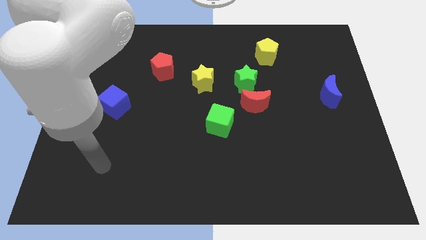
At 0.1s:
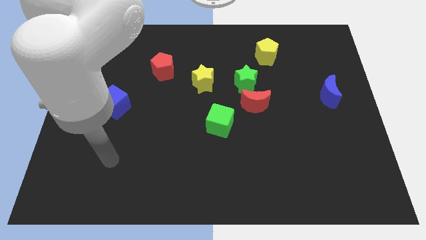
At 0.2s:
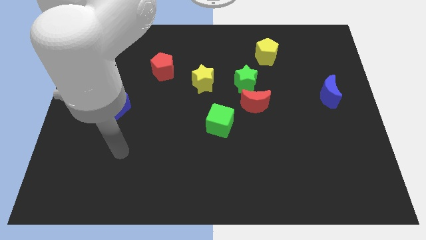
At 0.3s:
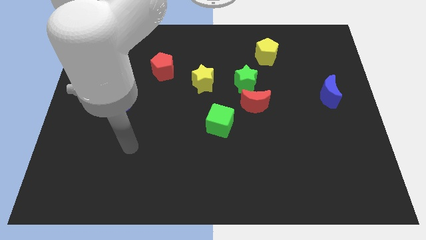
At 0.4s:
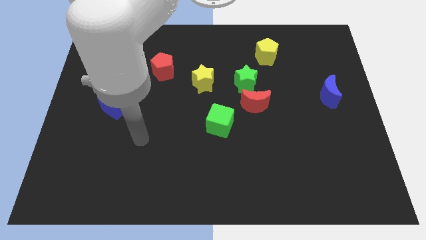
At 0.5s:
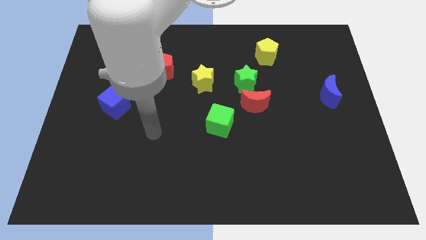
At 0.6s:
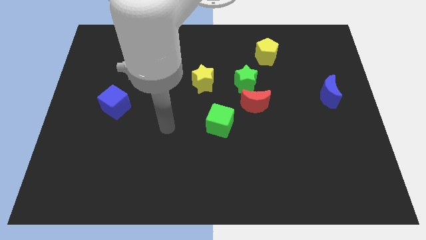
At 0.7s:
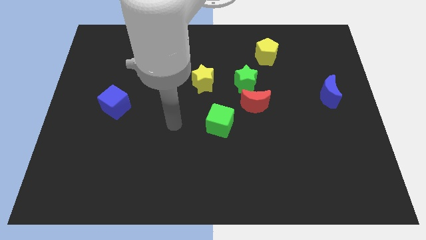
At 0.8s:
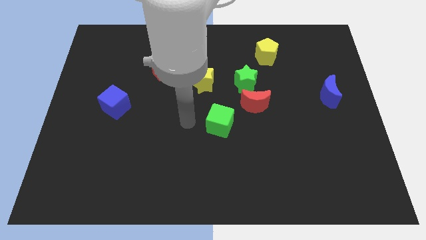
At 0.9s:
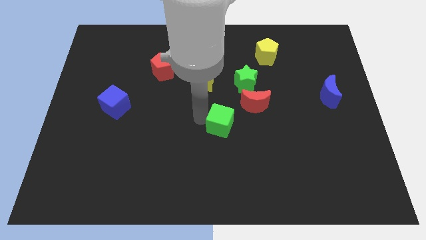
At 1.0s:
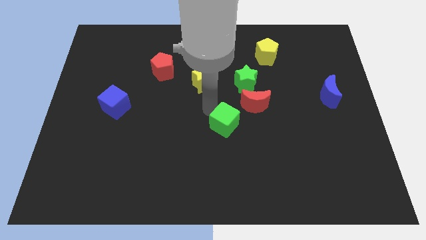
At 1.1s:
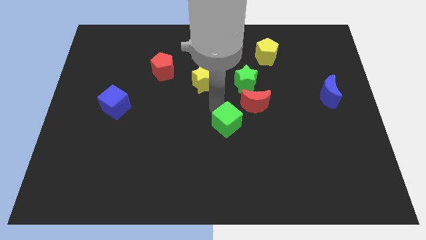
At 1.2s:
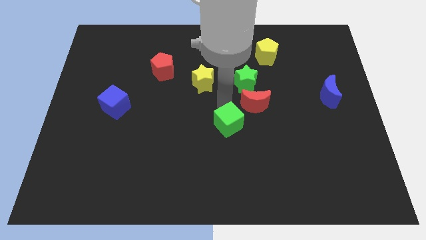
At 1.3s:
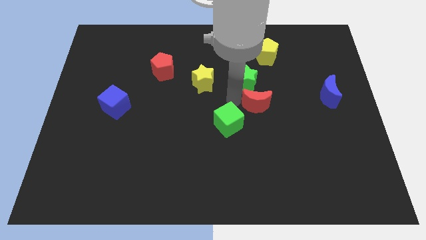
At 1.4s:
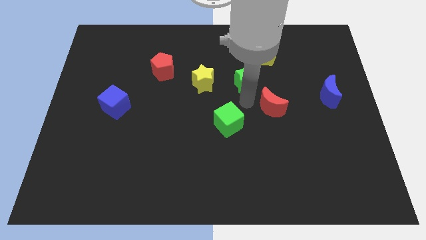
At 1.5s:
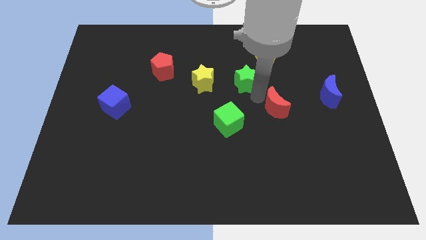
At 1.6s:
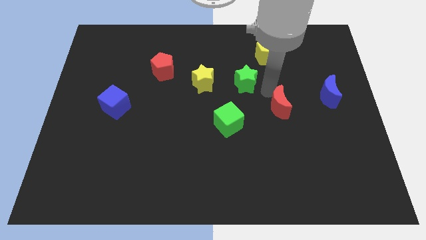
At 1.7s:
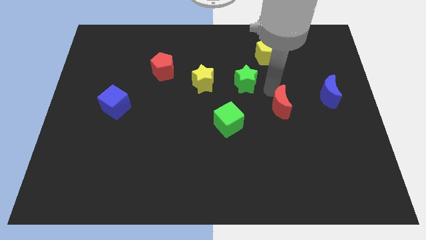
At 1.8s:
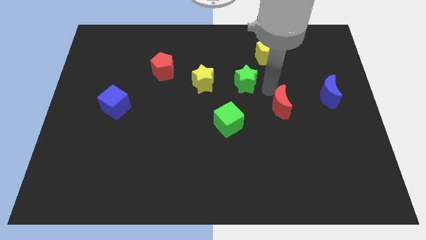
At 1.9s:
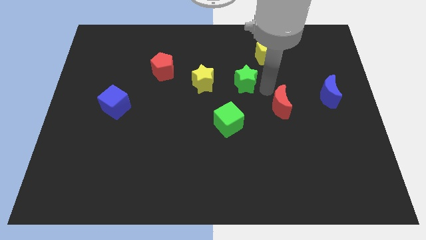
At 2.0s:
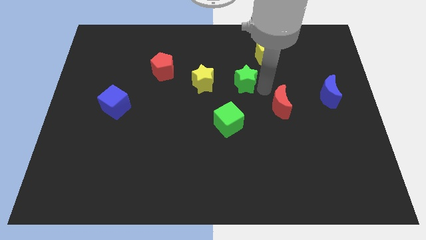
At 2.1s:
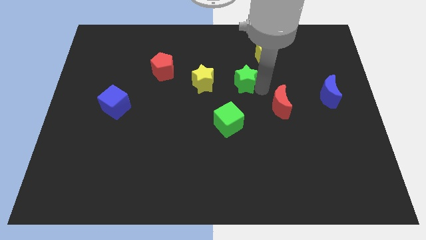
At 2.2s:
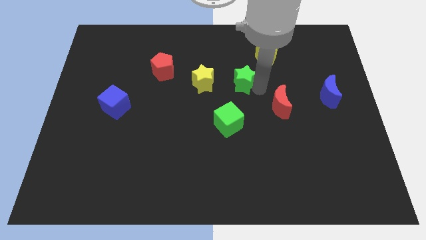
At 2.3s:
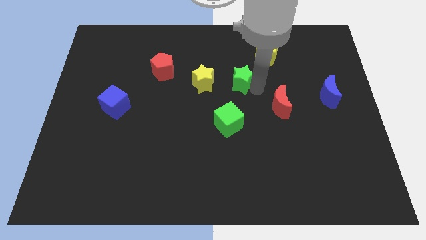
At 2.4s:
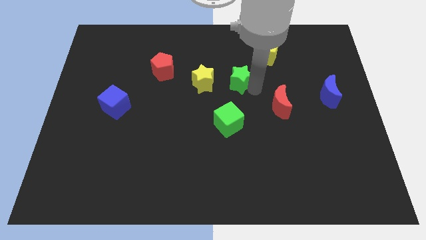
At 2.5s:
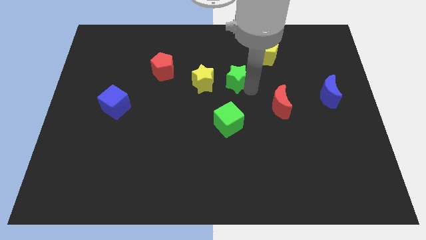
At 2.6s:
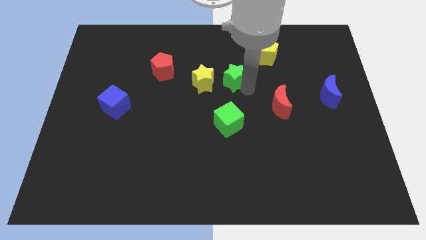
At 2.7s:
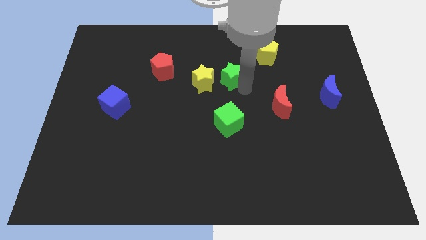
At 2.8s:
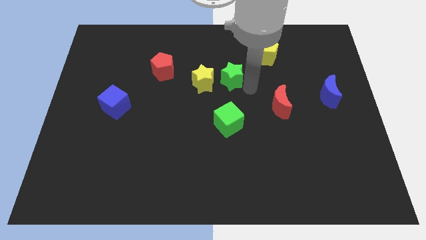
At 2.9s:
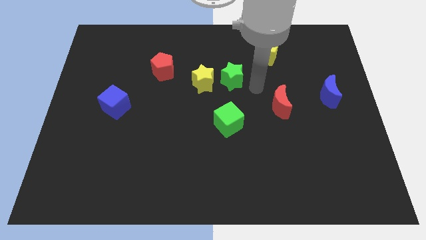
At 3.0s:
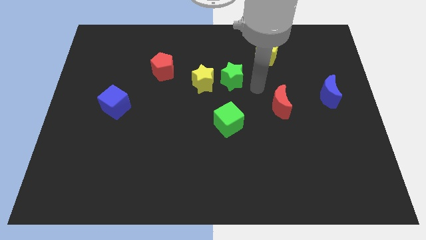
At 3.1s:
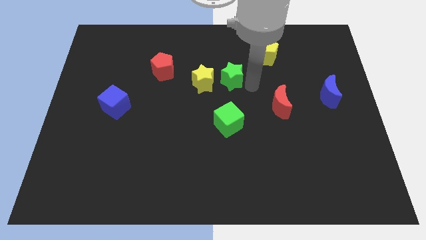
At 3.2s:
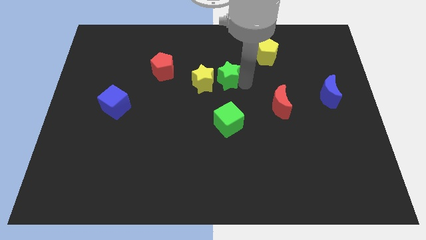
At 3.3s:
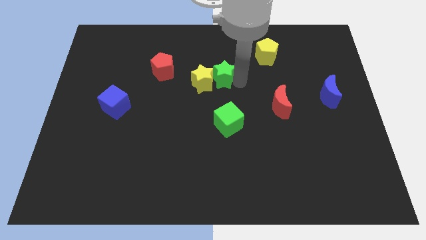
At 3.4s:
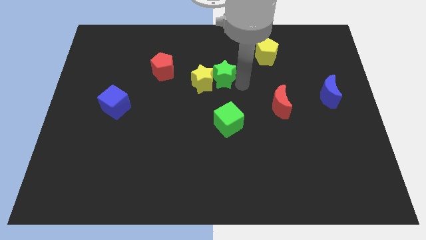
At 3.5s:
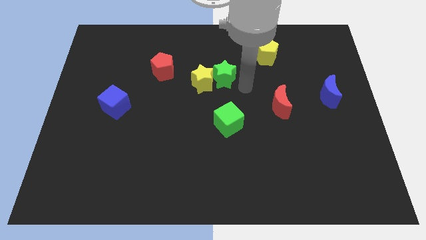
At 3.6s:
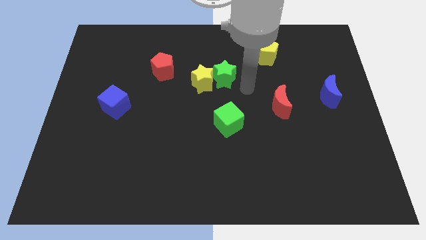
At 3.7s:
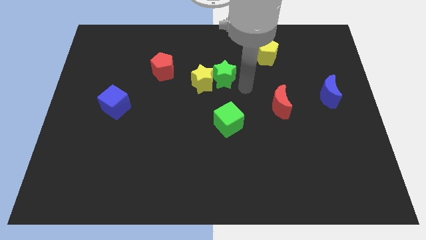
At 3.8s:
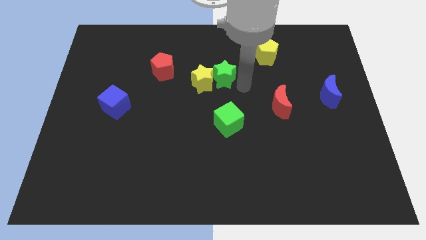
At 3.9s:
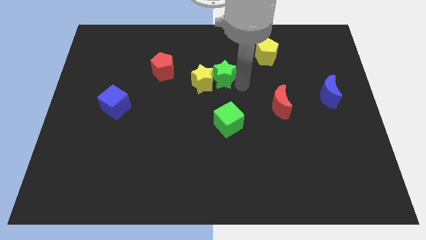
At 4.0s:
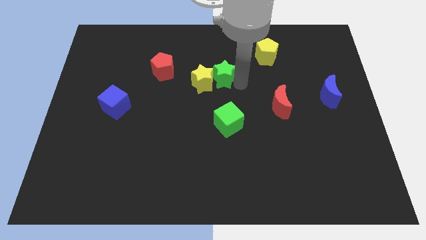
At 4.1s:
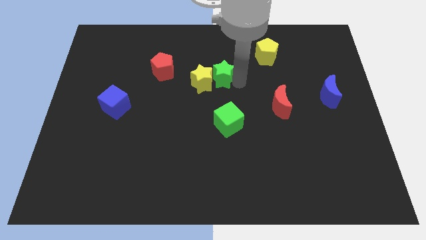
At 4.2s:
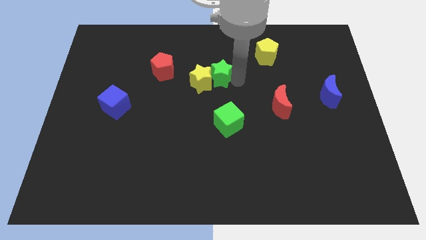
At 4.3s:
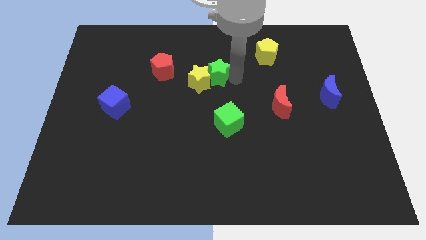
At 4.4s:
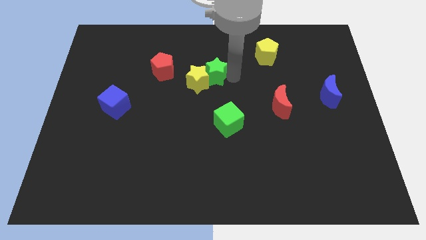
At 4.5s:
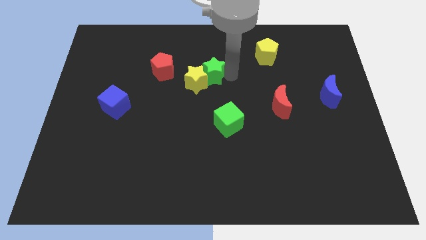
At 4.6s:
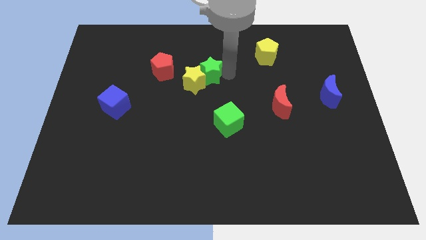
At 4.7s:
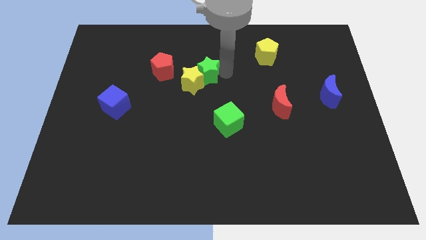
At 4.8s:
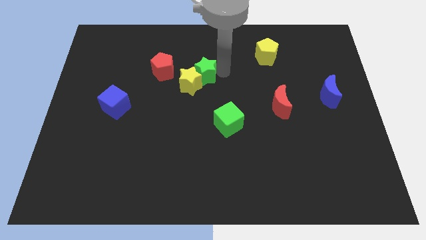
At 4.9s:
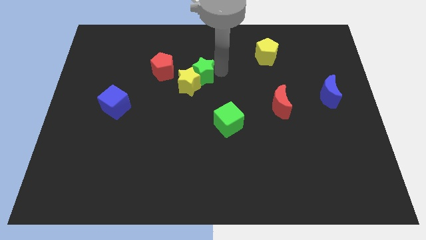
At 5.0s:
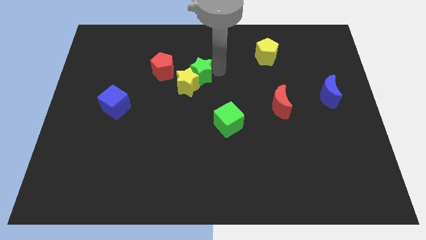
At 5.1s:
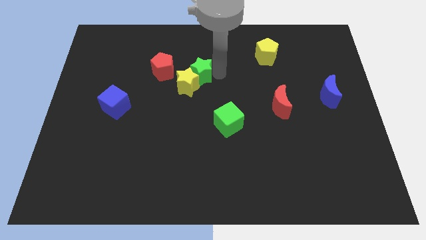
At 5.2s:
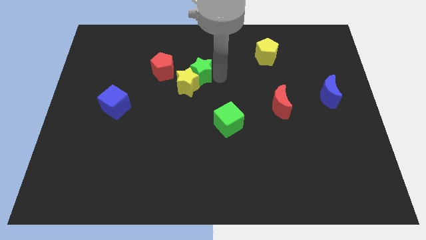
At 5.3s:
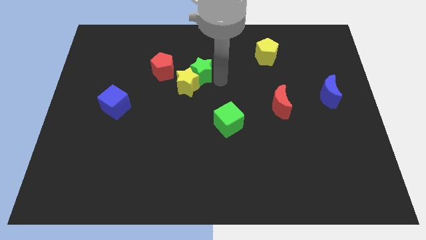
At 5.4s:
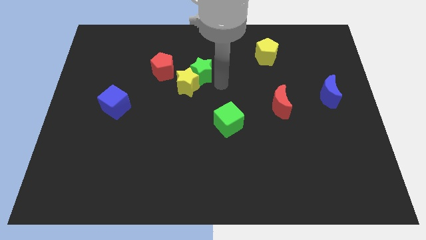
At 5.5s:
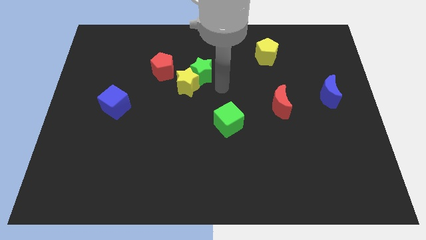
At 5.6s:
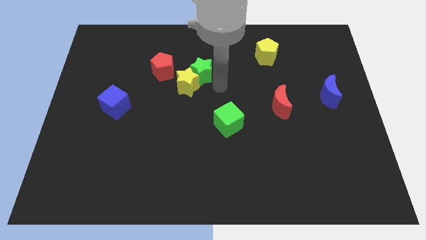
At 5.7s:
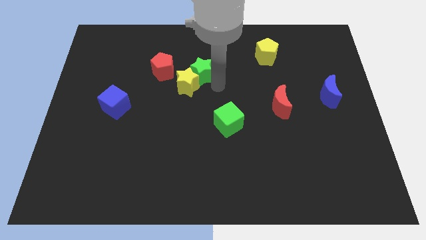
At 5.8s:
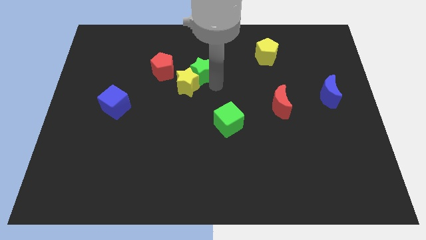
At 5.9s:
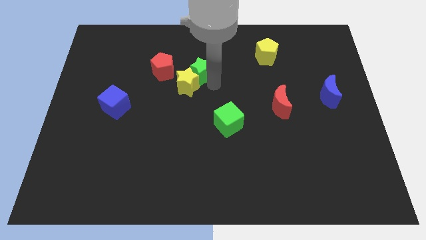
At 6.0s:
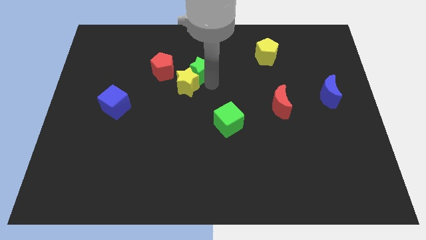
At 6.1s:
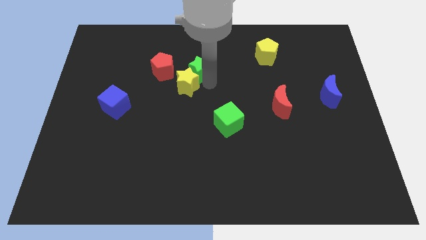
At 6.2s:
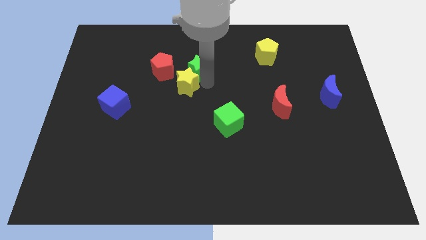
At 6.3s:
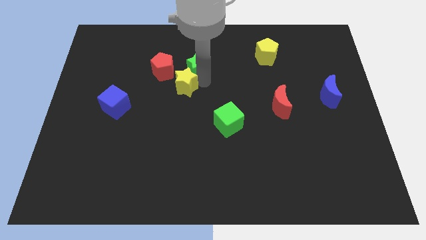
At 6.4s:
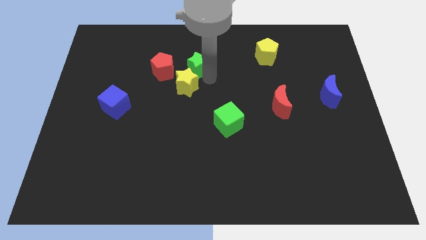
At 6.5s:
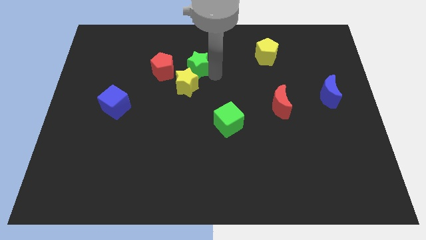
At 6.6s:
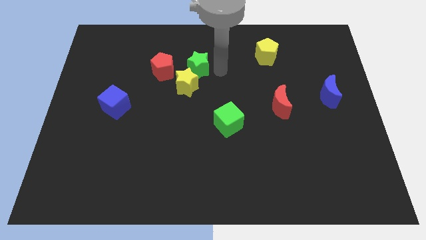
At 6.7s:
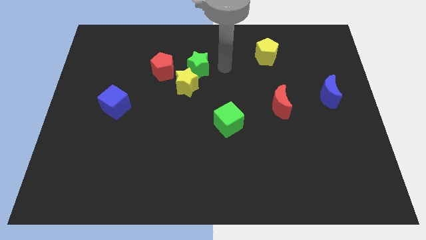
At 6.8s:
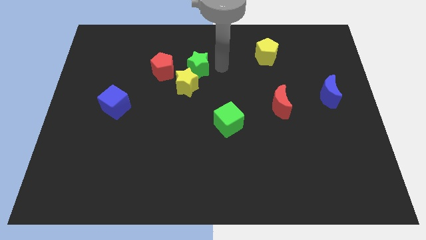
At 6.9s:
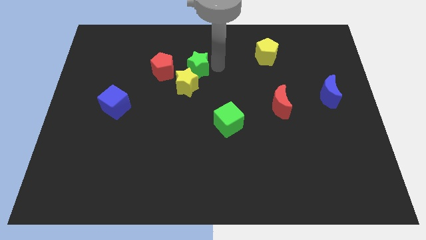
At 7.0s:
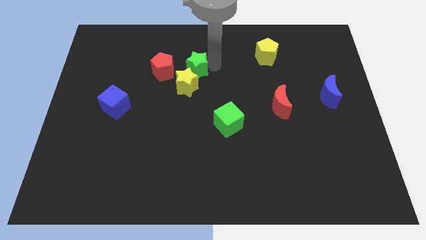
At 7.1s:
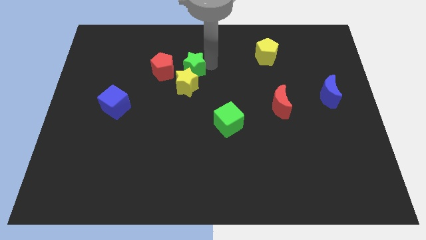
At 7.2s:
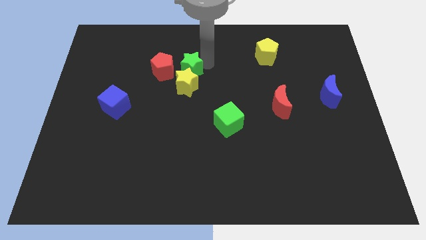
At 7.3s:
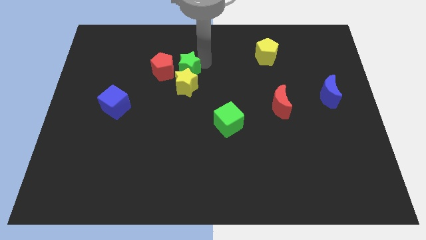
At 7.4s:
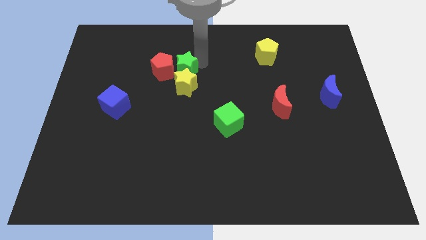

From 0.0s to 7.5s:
slide the green star to the red pentagon
